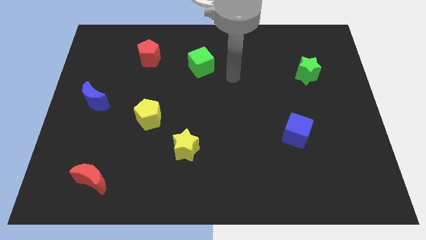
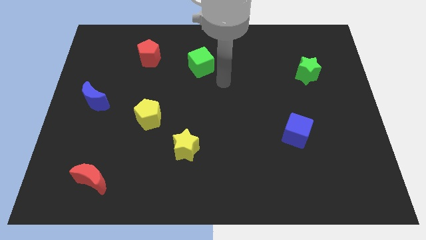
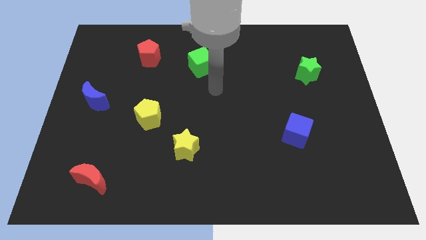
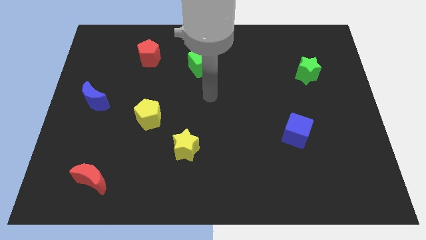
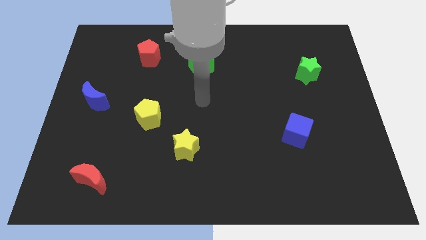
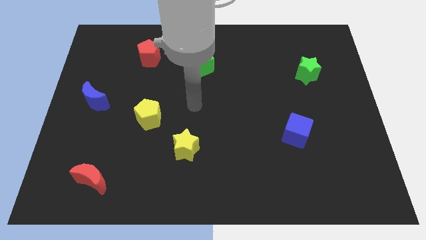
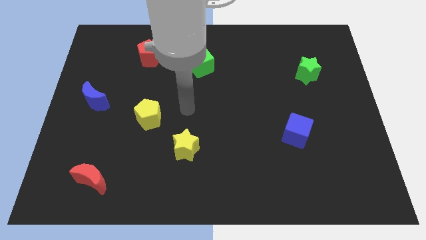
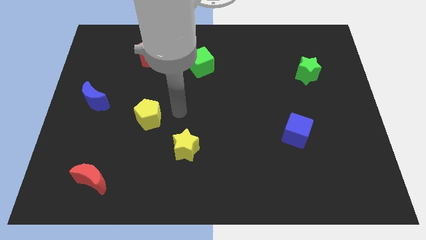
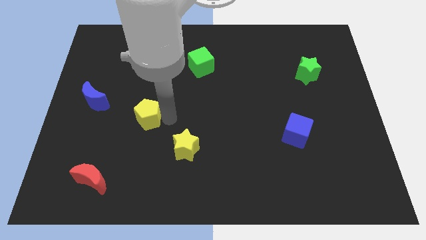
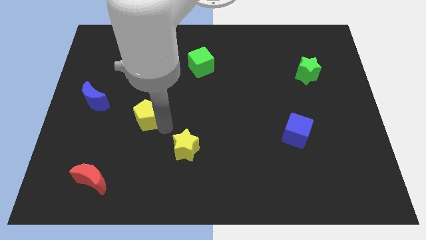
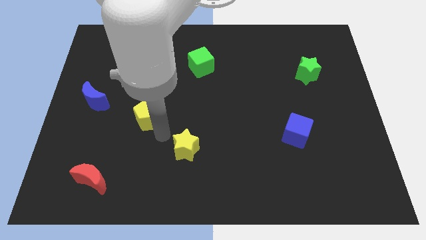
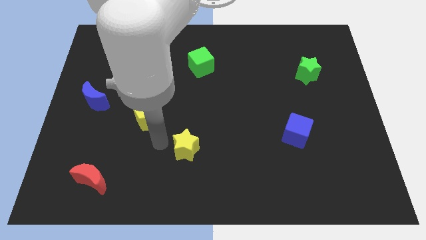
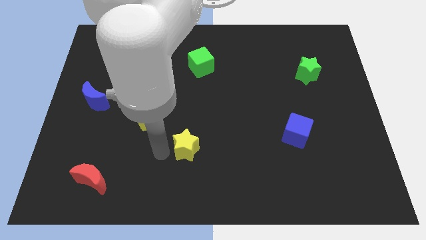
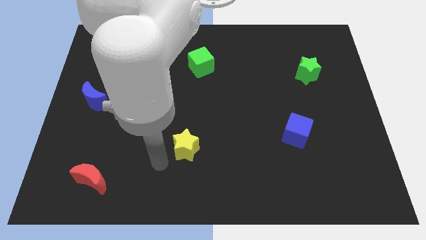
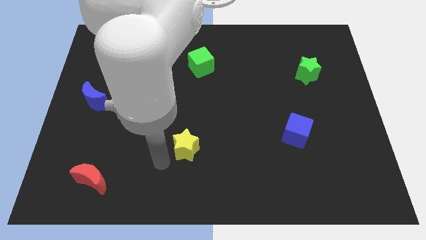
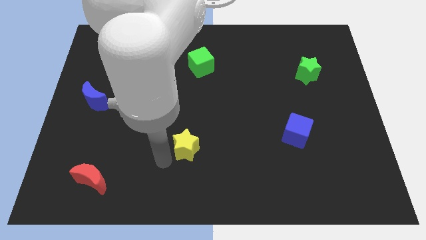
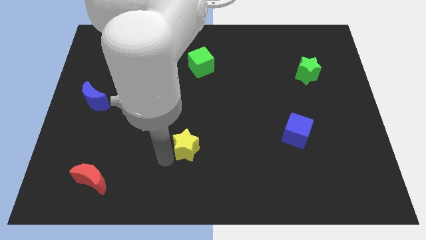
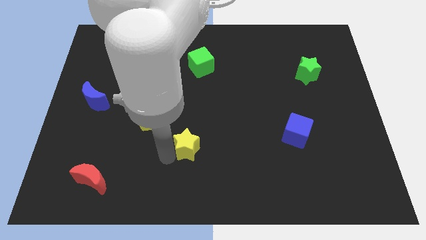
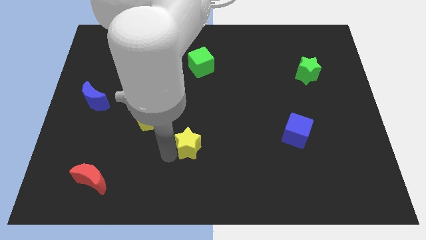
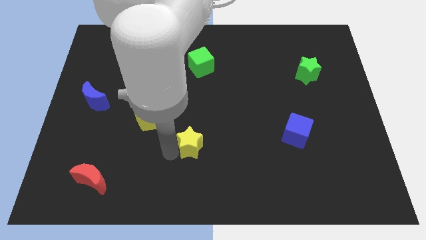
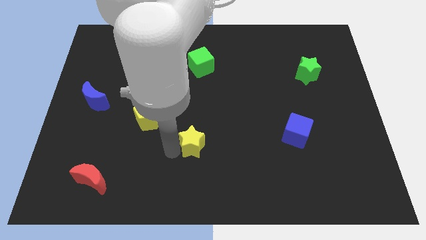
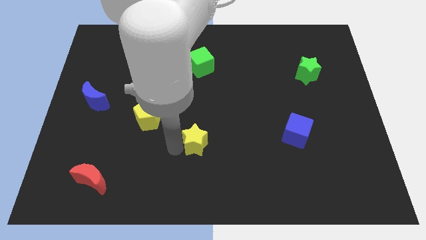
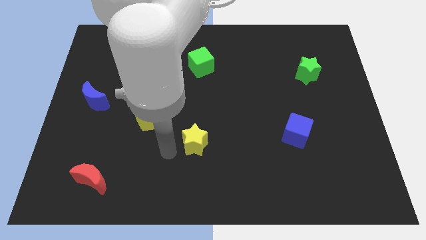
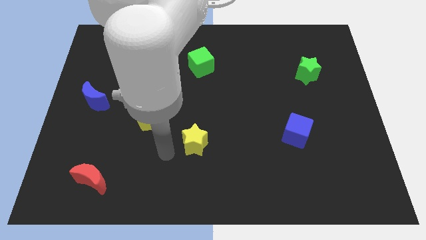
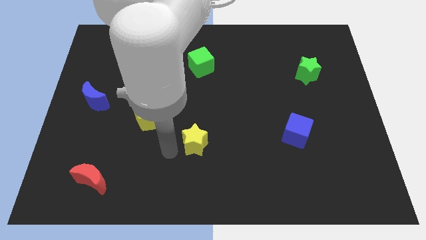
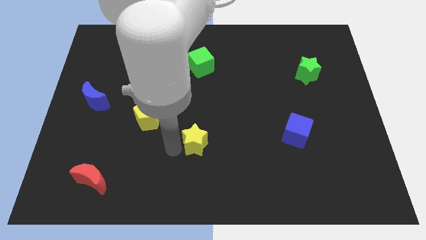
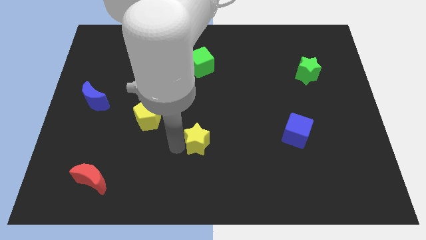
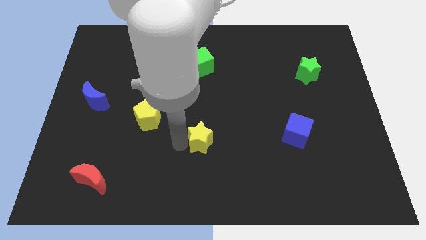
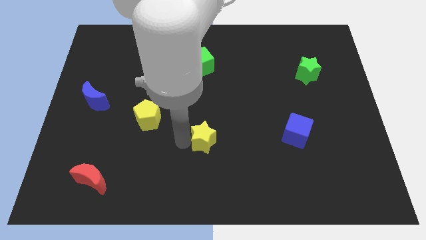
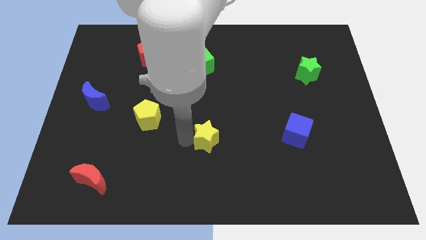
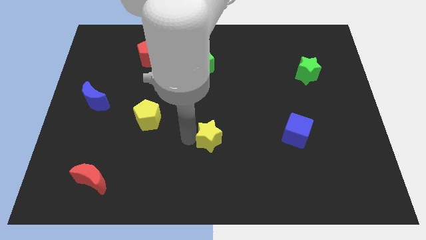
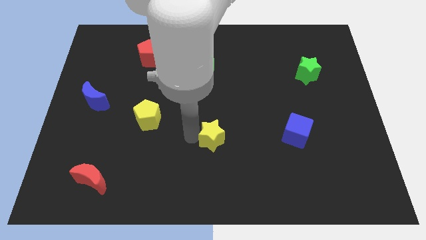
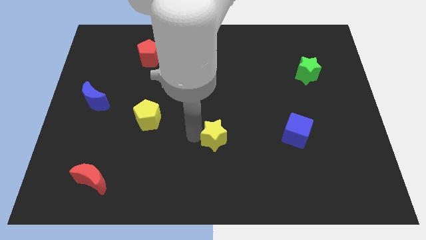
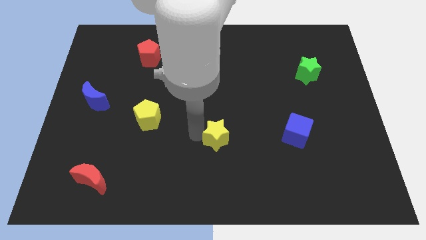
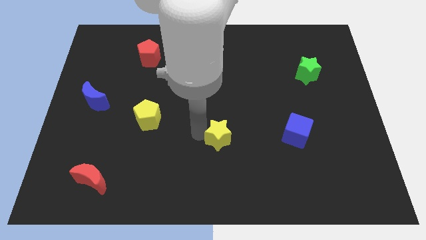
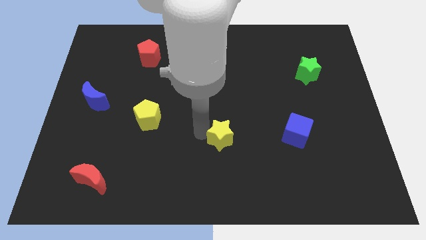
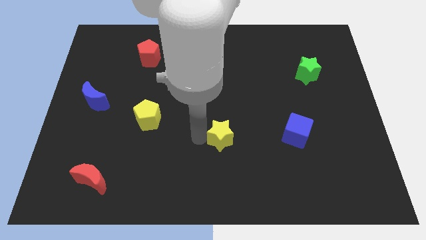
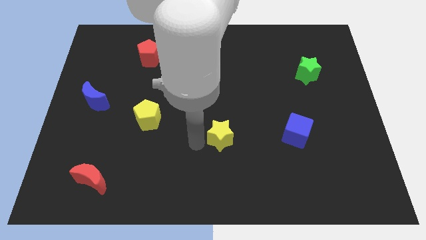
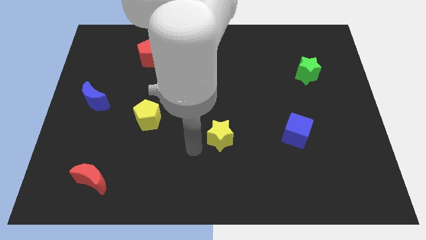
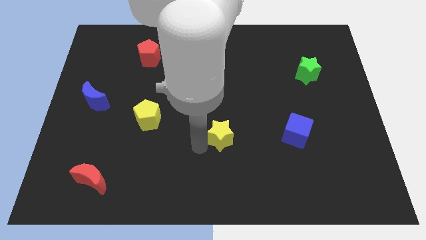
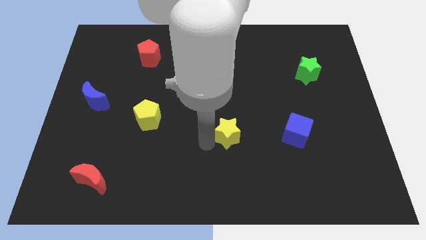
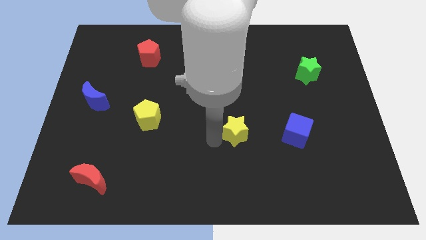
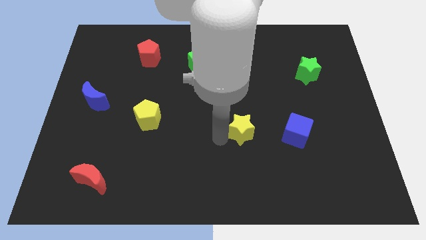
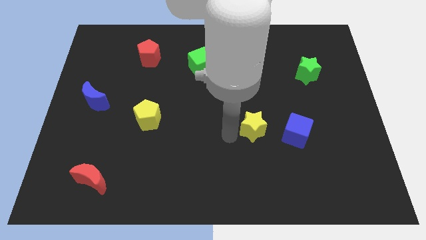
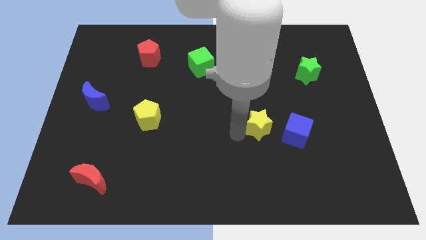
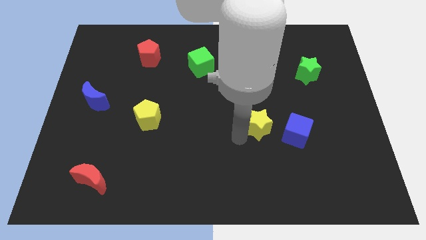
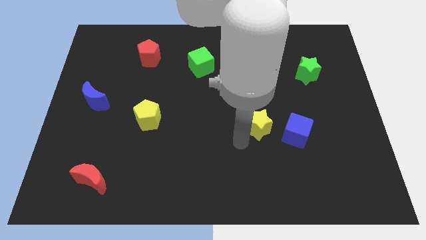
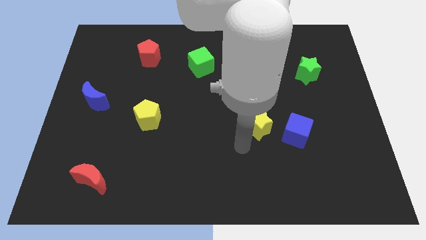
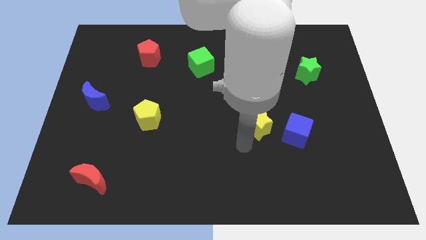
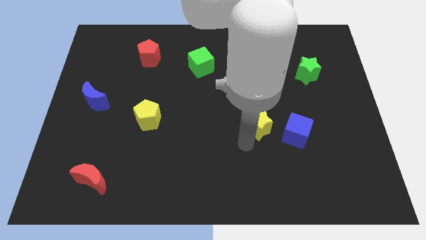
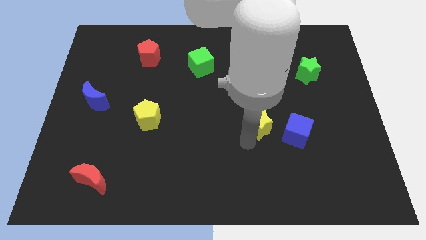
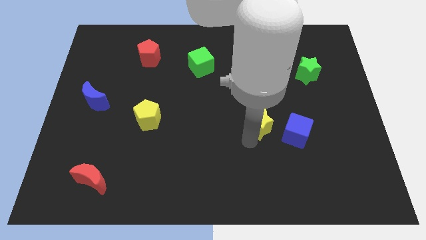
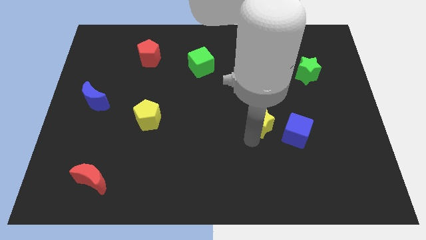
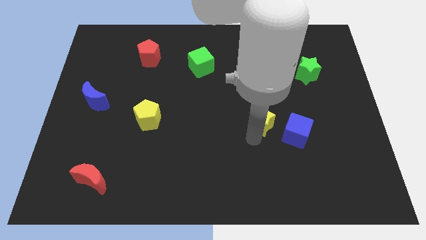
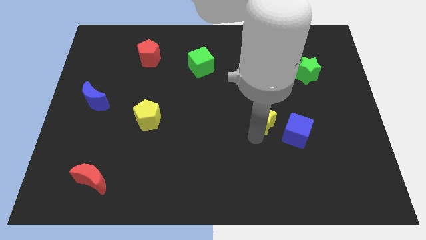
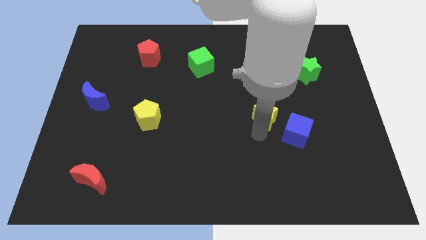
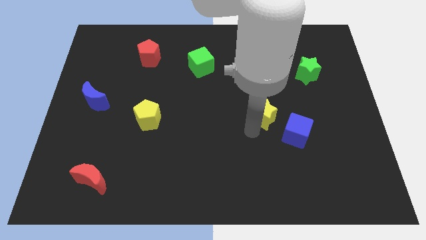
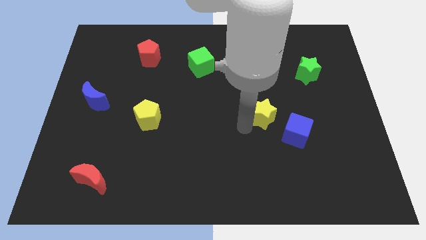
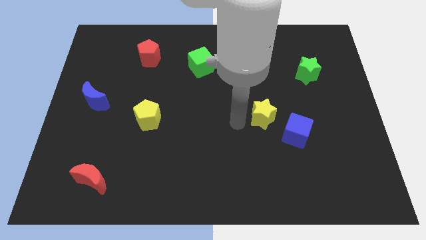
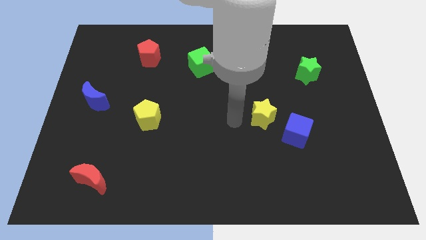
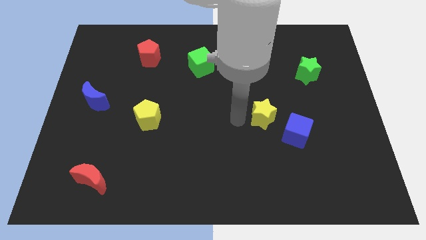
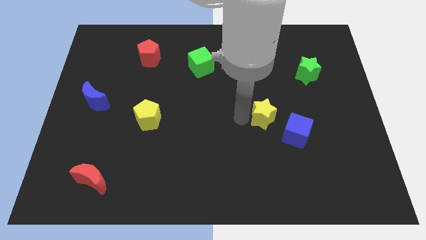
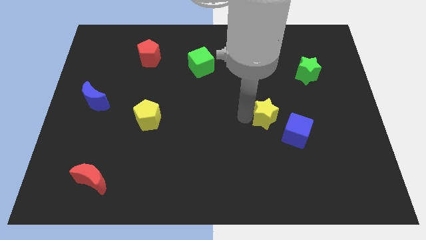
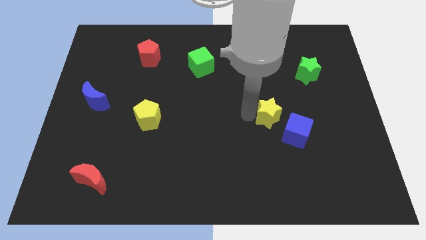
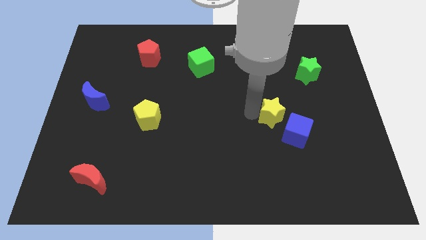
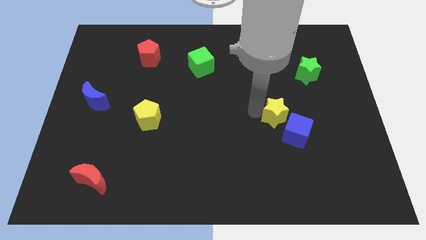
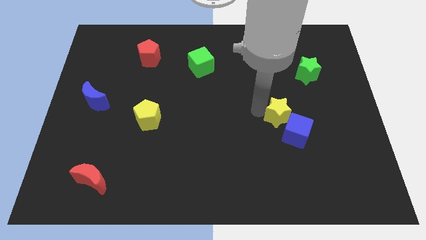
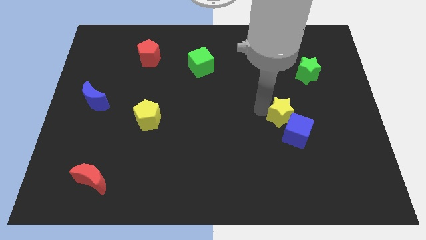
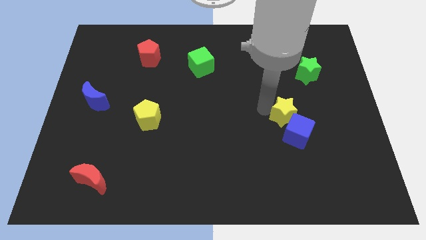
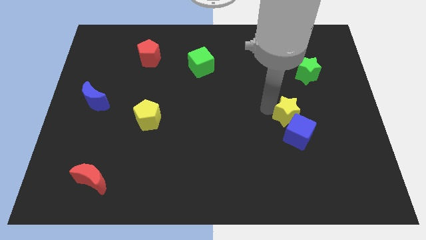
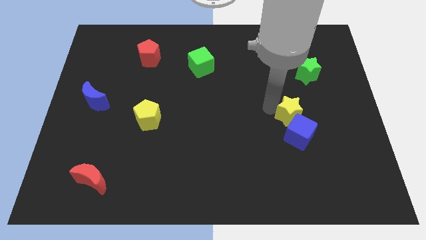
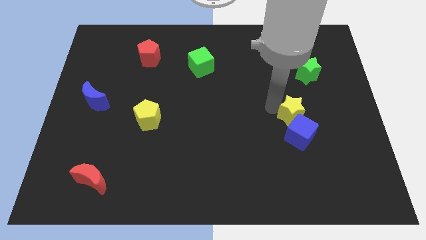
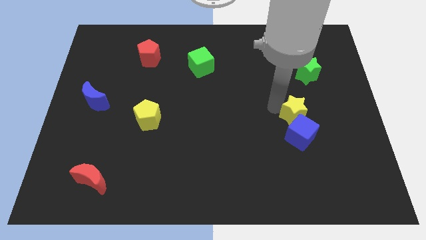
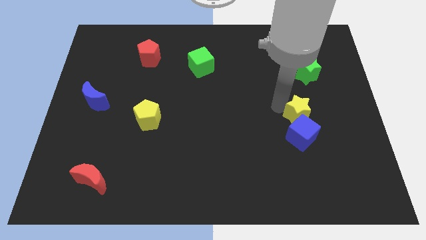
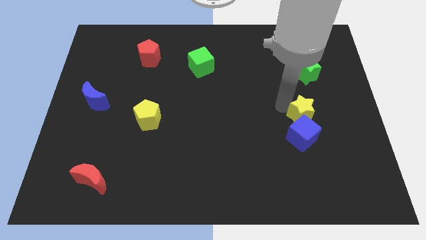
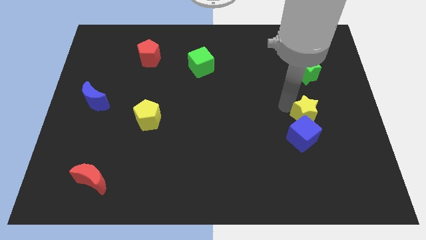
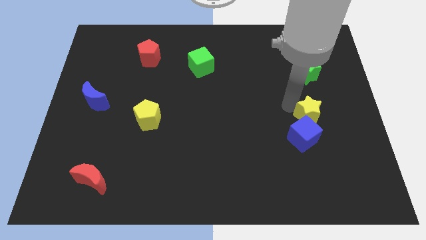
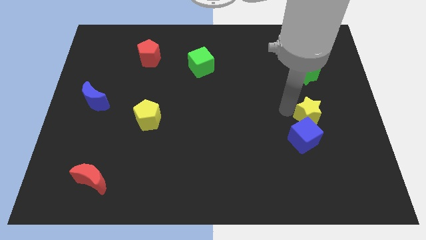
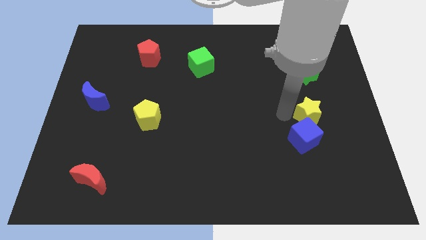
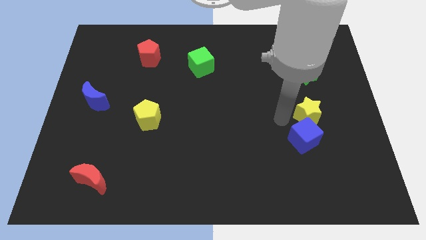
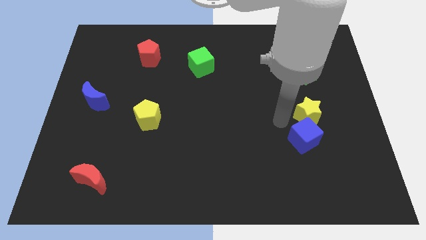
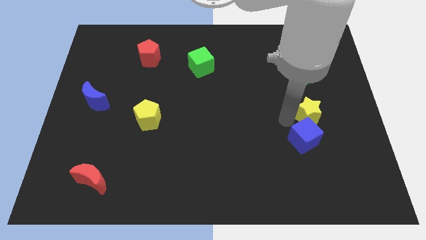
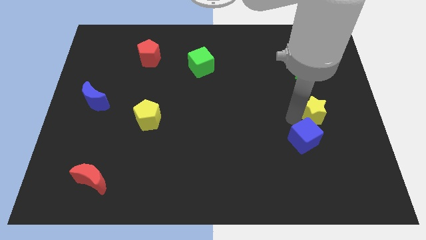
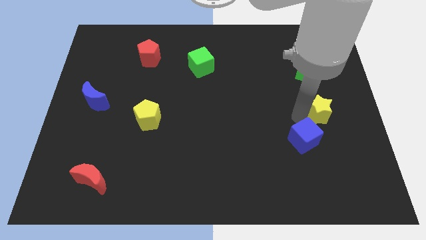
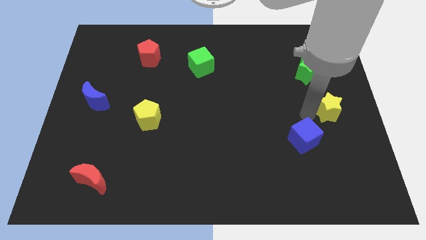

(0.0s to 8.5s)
slide the yellow star to the right side
